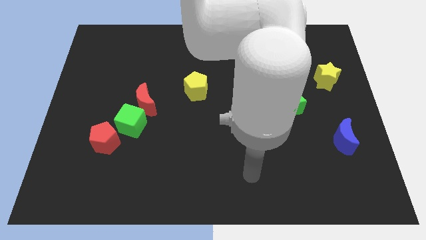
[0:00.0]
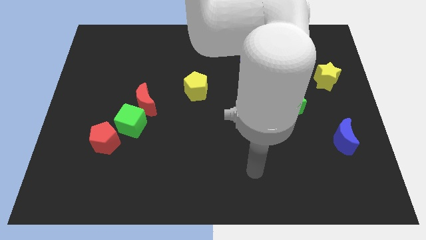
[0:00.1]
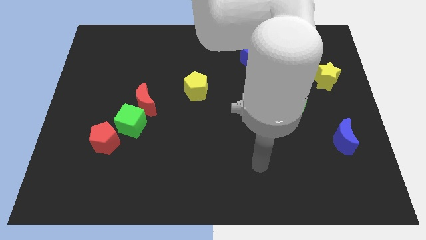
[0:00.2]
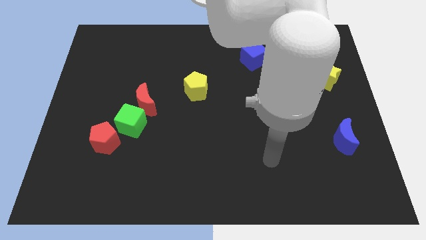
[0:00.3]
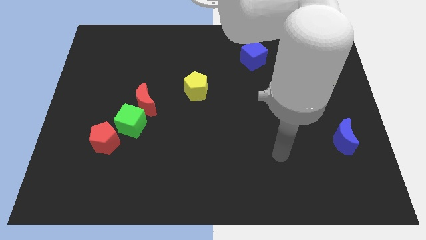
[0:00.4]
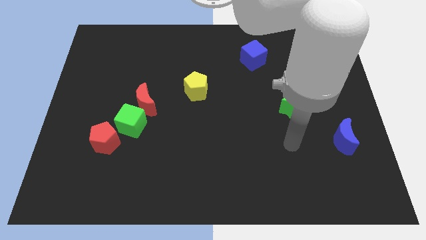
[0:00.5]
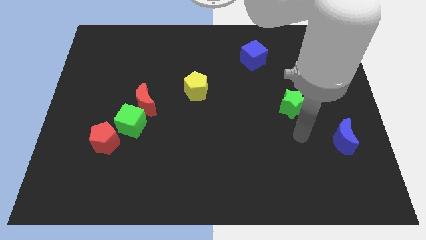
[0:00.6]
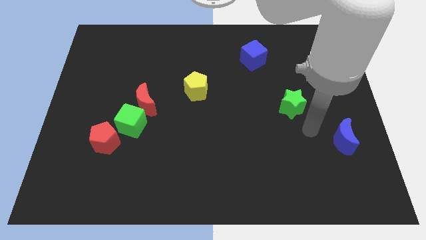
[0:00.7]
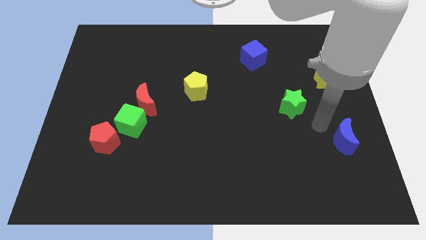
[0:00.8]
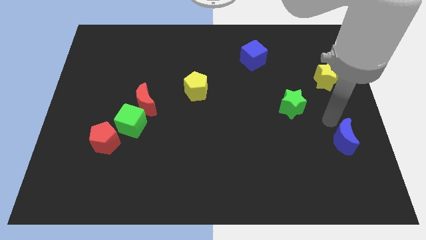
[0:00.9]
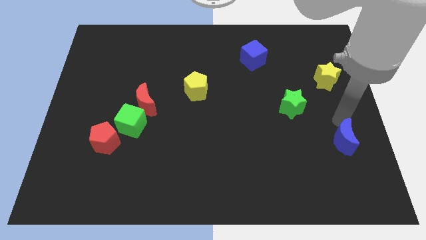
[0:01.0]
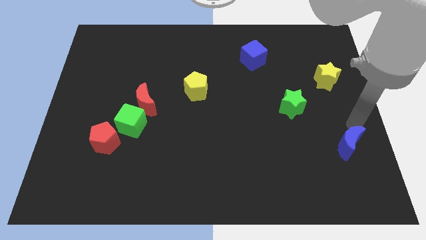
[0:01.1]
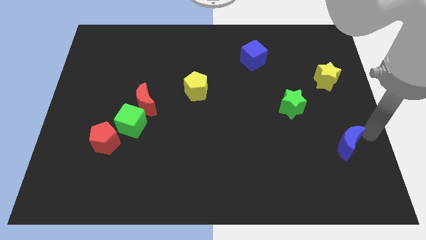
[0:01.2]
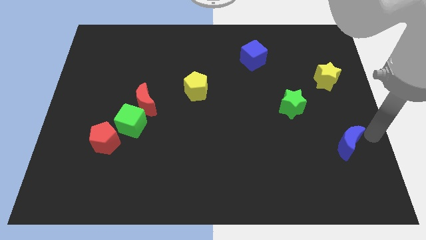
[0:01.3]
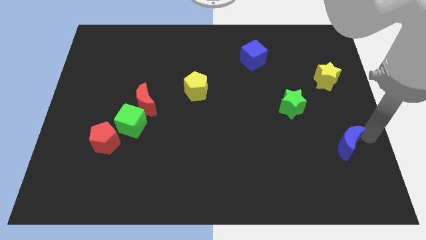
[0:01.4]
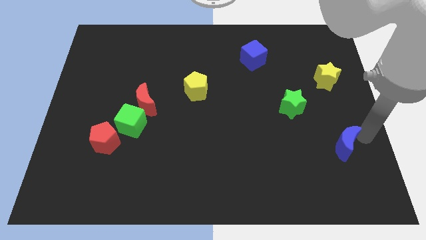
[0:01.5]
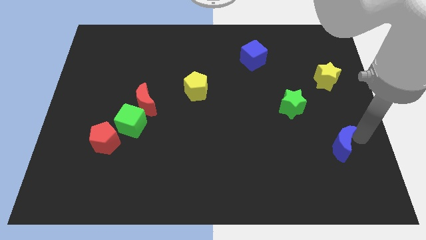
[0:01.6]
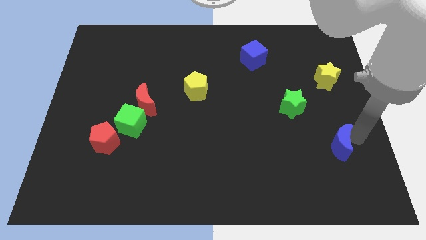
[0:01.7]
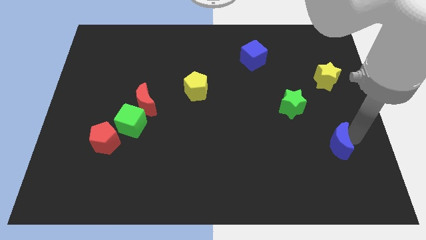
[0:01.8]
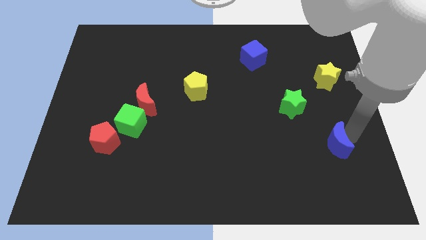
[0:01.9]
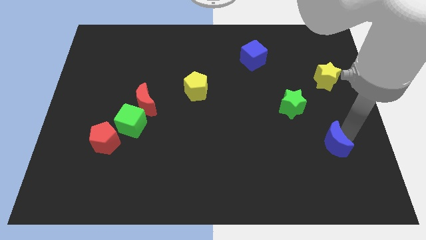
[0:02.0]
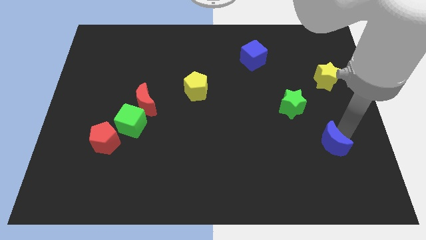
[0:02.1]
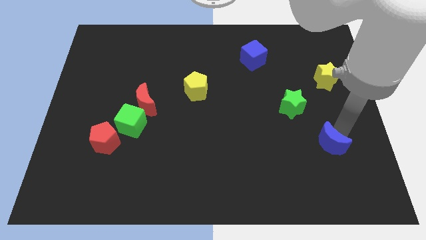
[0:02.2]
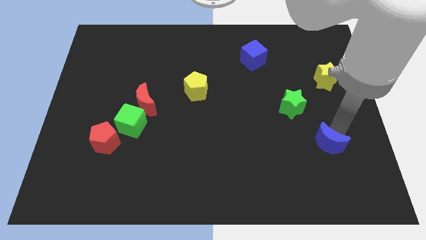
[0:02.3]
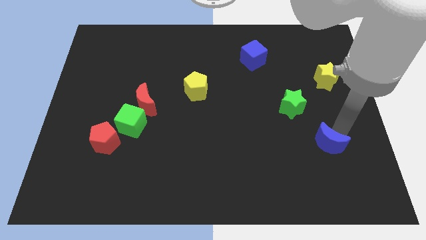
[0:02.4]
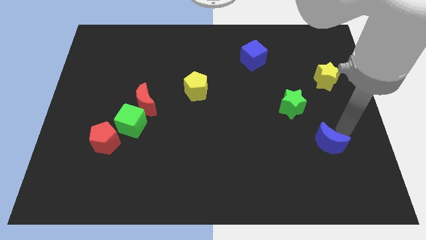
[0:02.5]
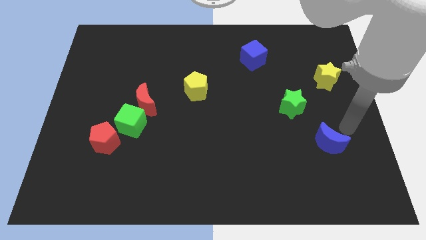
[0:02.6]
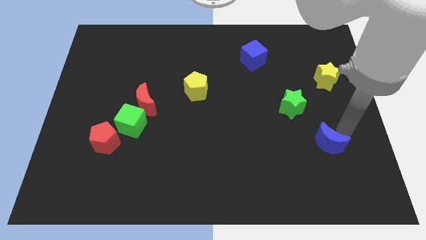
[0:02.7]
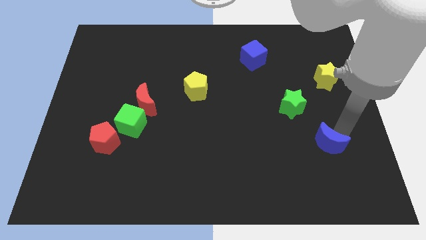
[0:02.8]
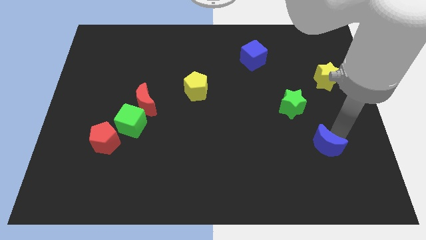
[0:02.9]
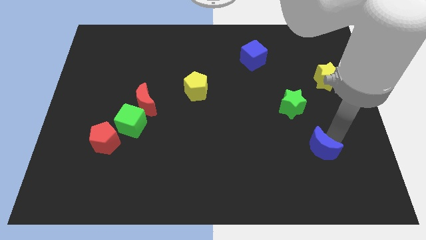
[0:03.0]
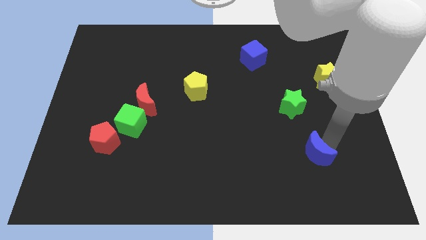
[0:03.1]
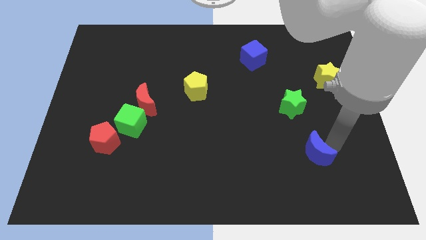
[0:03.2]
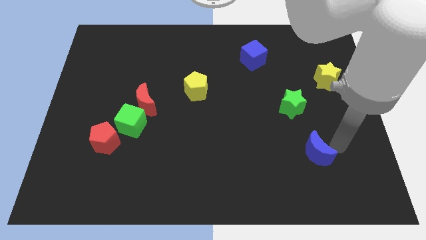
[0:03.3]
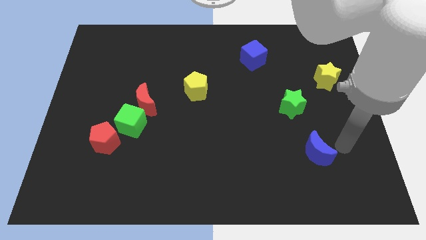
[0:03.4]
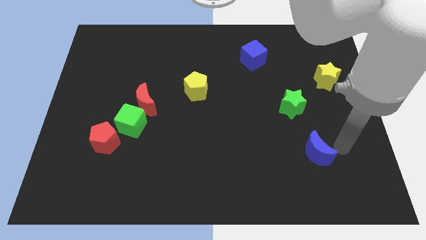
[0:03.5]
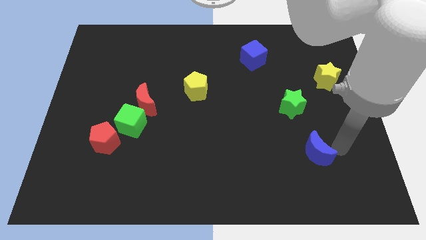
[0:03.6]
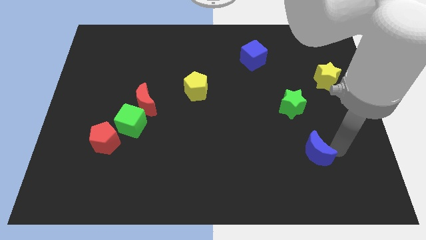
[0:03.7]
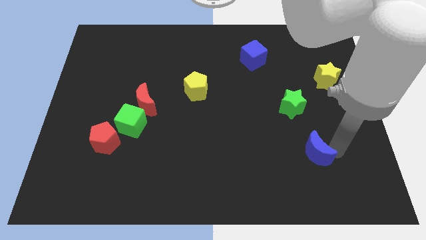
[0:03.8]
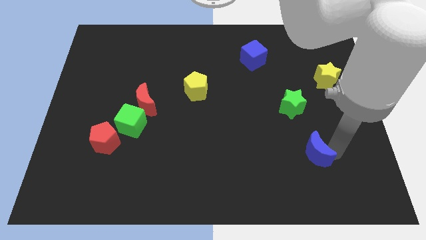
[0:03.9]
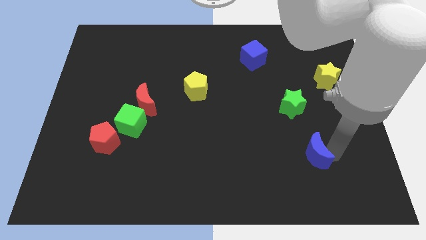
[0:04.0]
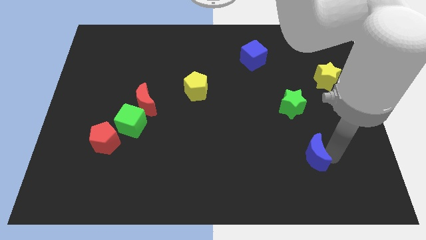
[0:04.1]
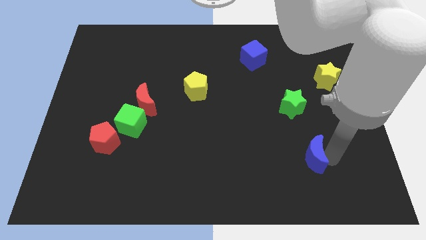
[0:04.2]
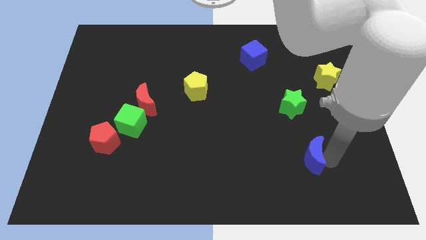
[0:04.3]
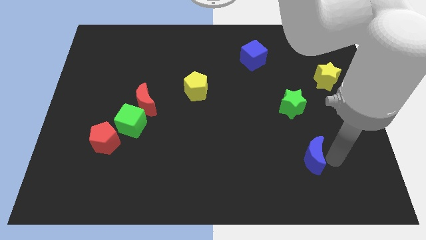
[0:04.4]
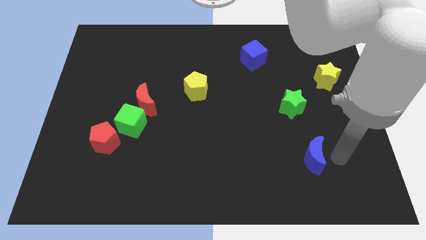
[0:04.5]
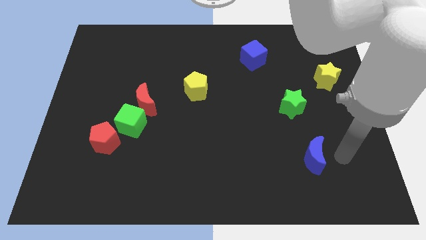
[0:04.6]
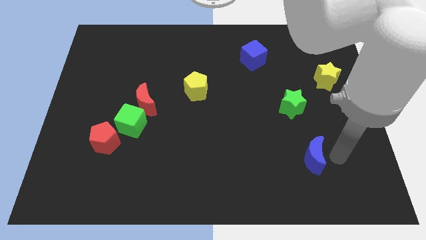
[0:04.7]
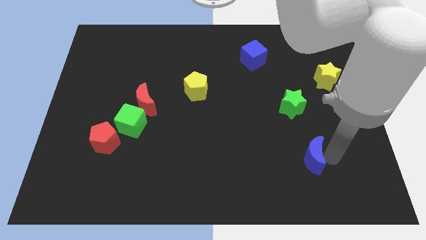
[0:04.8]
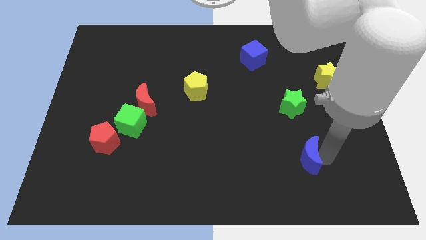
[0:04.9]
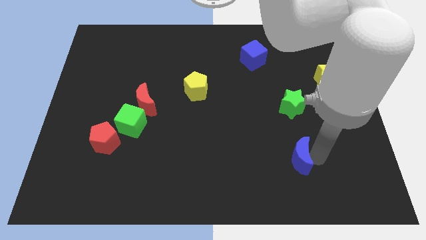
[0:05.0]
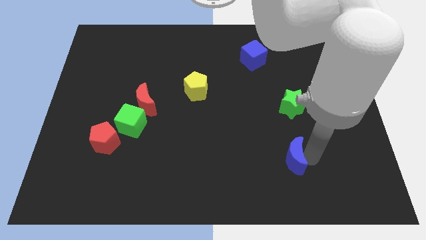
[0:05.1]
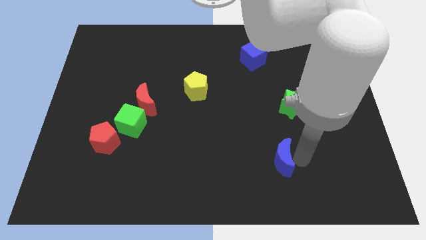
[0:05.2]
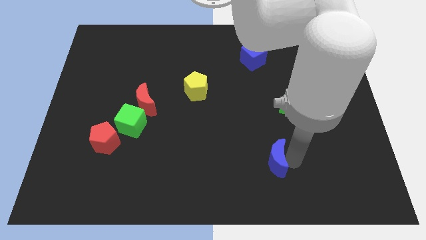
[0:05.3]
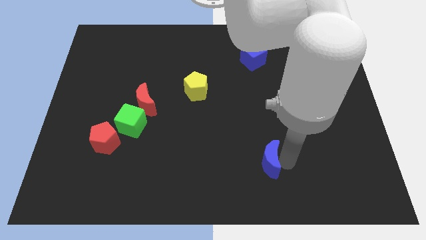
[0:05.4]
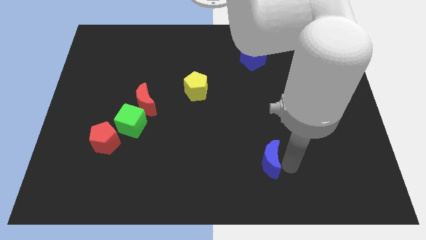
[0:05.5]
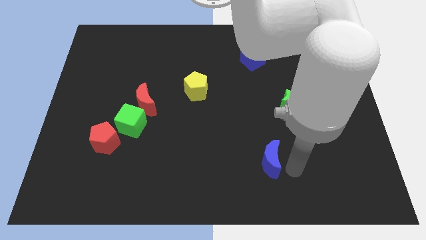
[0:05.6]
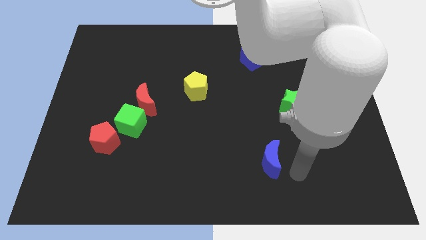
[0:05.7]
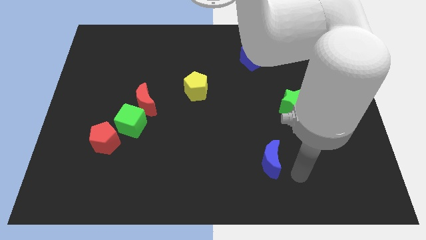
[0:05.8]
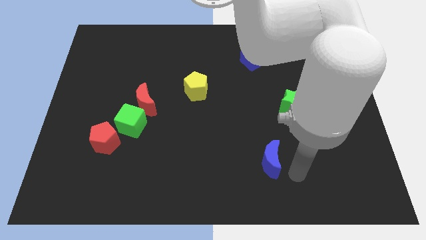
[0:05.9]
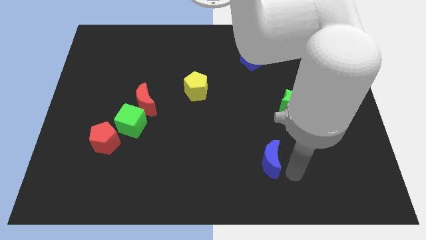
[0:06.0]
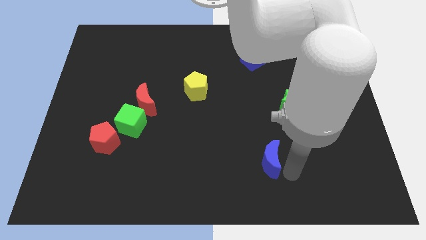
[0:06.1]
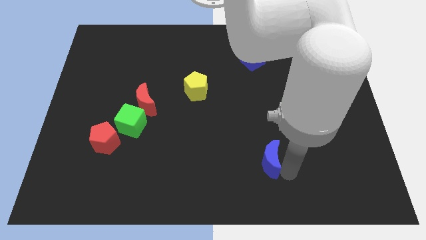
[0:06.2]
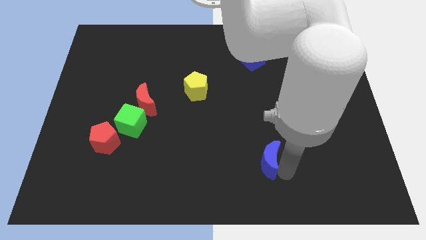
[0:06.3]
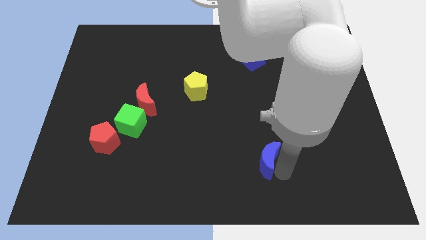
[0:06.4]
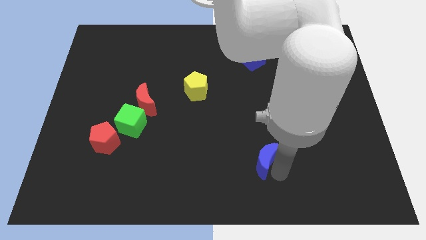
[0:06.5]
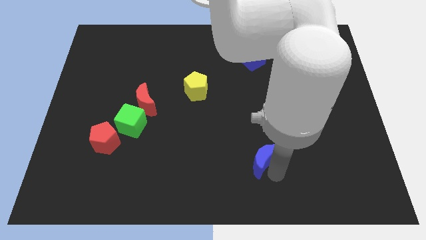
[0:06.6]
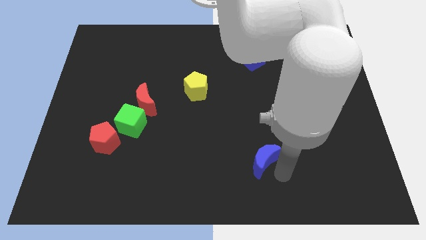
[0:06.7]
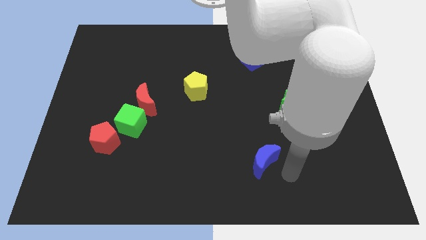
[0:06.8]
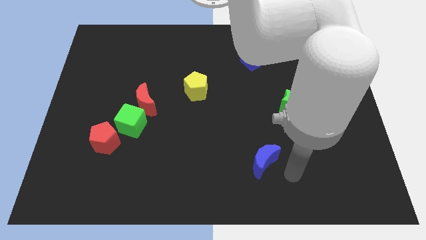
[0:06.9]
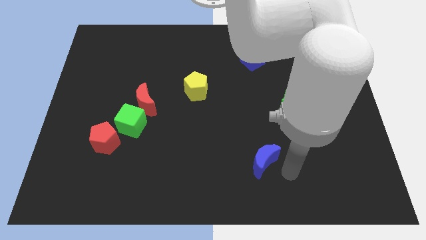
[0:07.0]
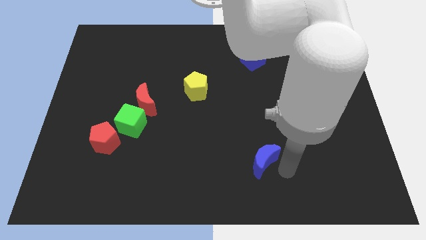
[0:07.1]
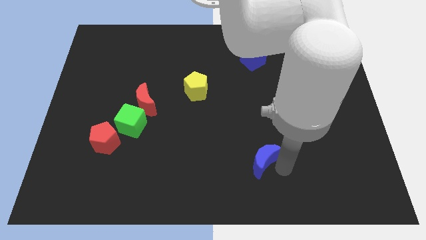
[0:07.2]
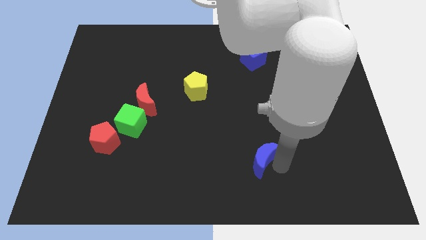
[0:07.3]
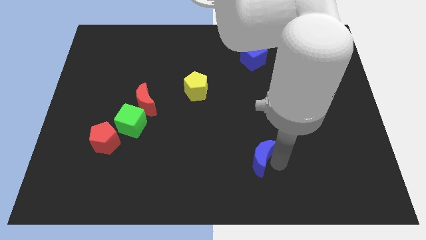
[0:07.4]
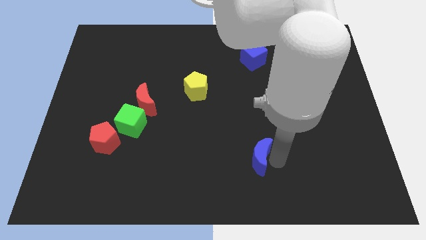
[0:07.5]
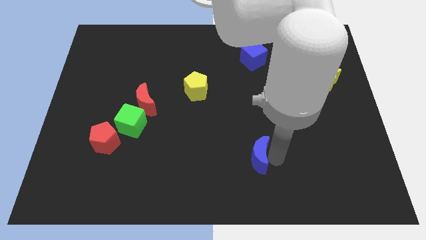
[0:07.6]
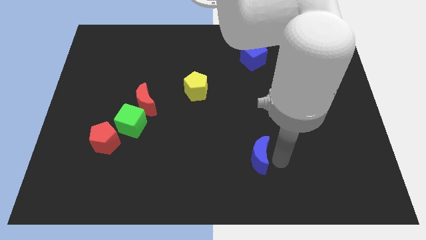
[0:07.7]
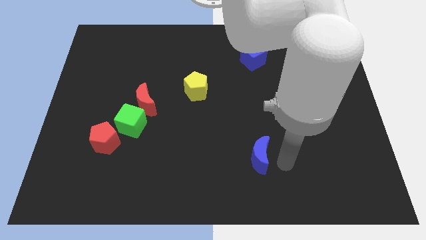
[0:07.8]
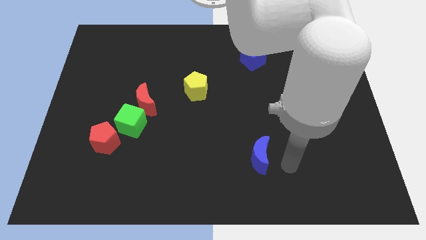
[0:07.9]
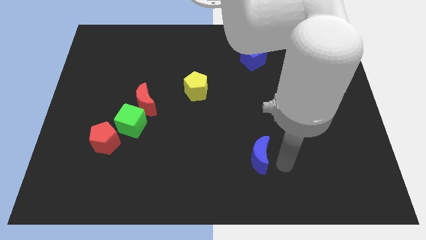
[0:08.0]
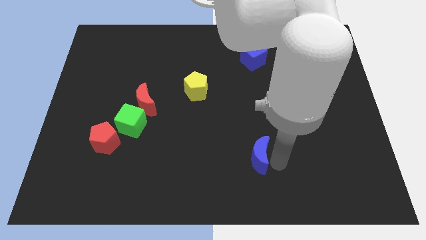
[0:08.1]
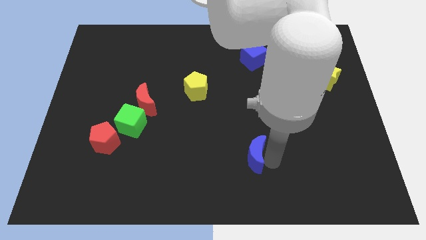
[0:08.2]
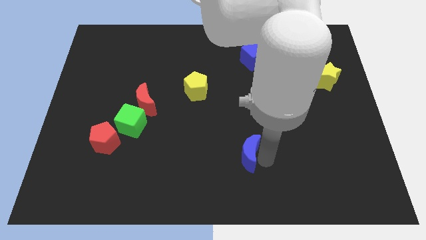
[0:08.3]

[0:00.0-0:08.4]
push the blue moon to the left
